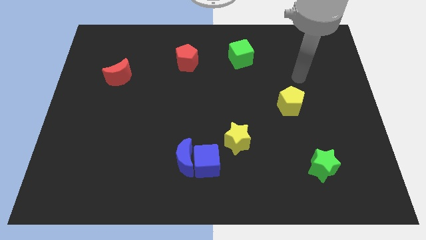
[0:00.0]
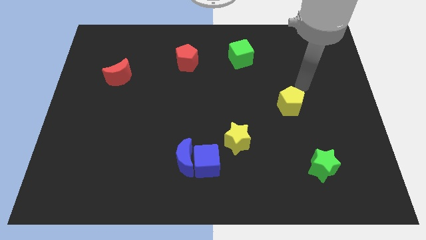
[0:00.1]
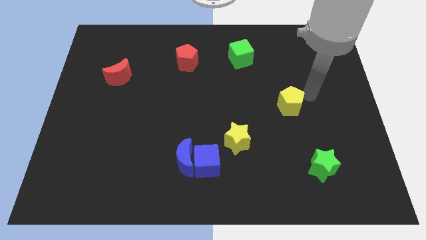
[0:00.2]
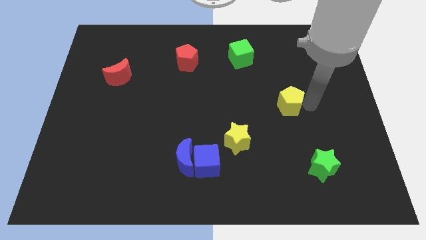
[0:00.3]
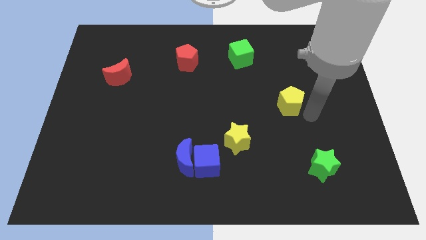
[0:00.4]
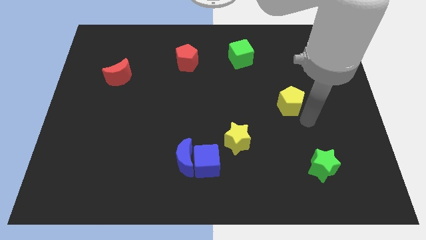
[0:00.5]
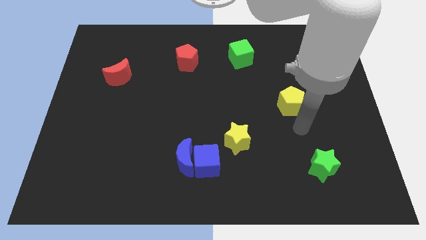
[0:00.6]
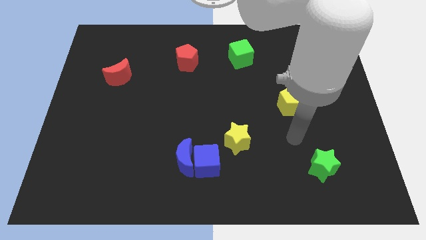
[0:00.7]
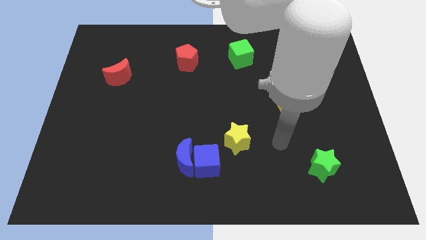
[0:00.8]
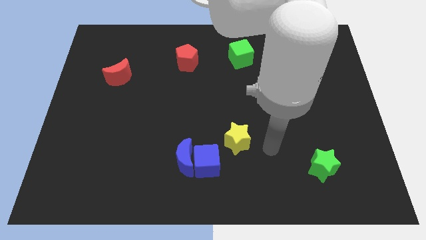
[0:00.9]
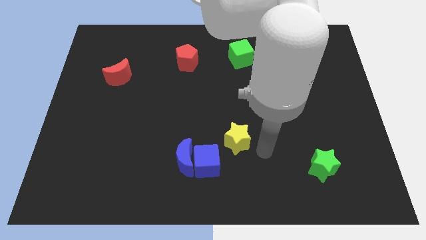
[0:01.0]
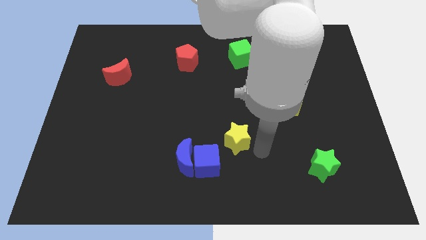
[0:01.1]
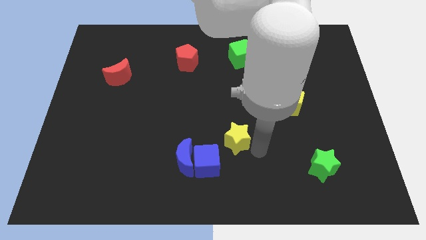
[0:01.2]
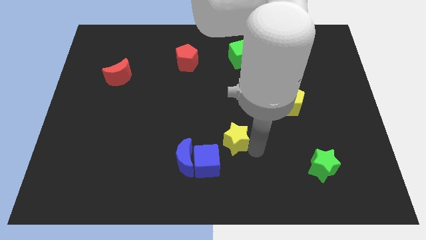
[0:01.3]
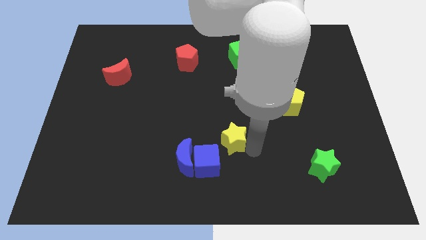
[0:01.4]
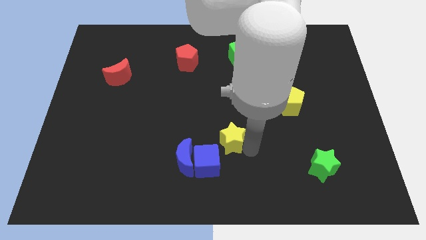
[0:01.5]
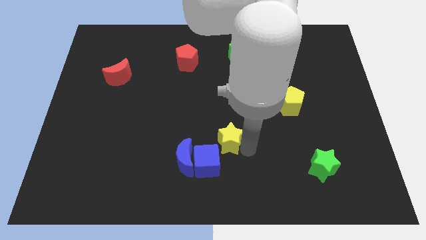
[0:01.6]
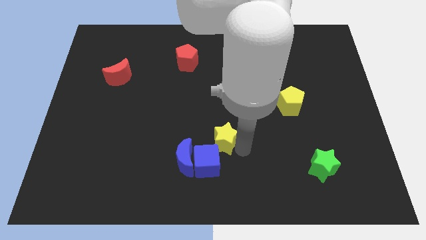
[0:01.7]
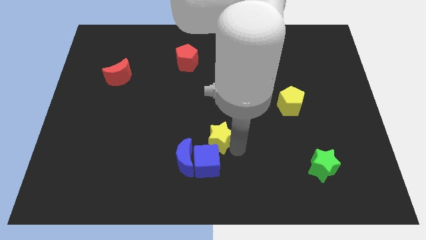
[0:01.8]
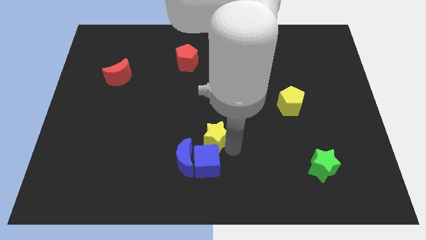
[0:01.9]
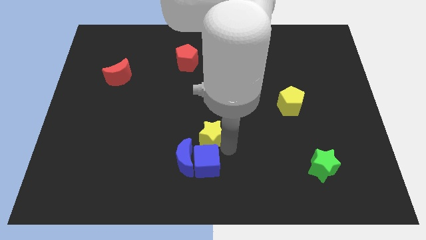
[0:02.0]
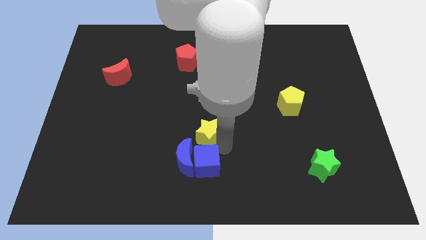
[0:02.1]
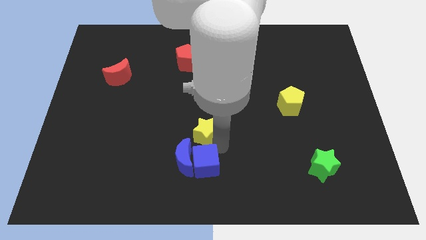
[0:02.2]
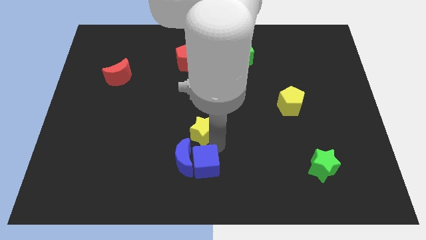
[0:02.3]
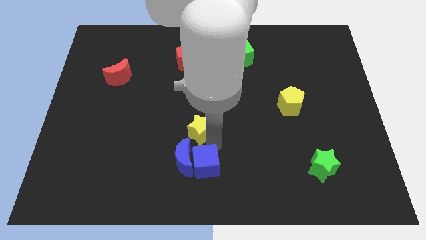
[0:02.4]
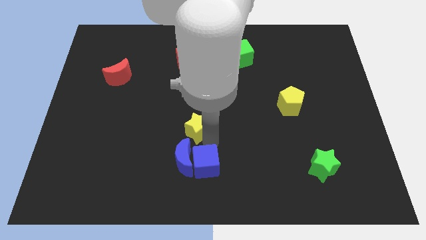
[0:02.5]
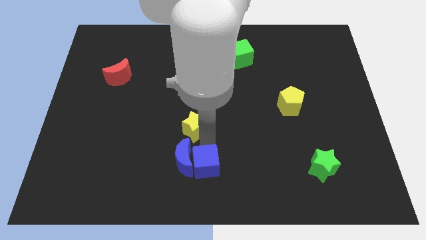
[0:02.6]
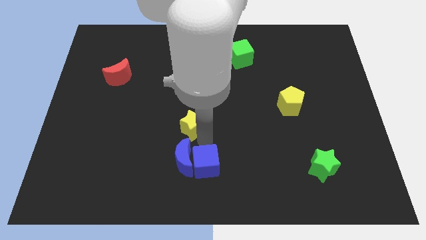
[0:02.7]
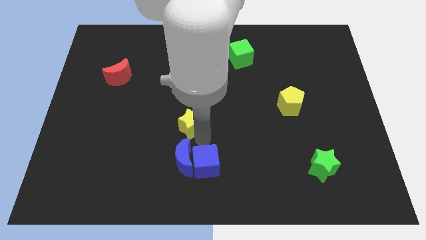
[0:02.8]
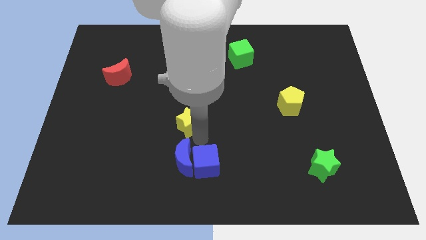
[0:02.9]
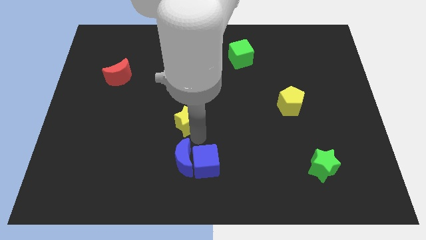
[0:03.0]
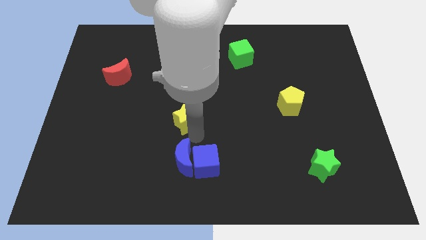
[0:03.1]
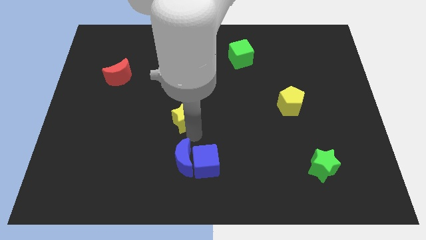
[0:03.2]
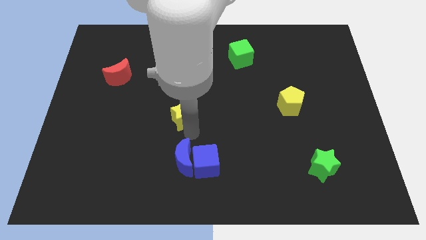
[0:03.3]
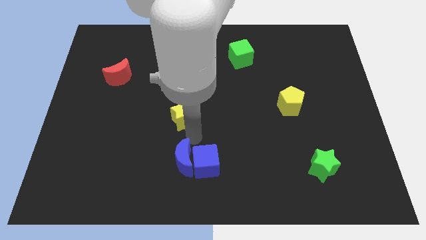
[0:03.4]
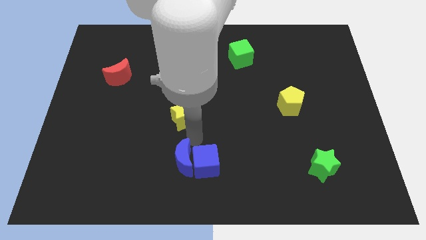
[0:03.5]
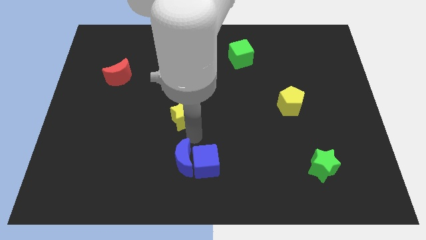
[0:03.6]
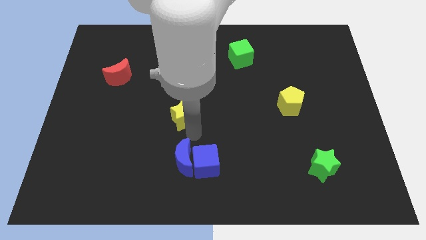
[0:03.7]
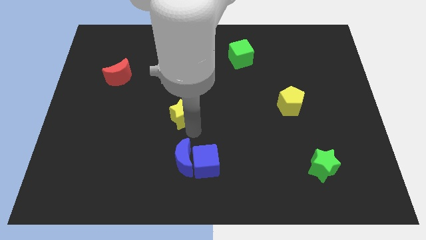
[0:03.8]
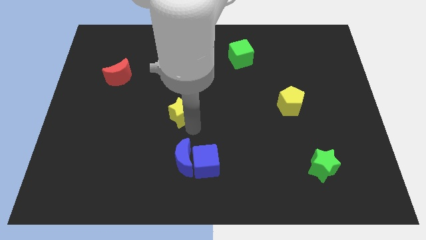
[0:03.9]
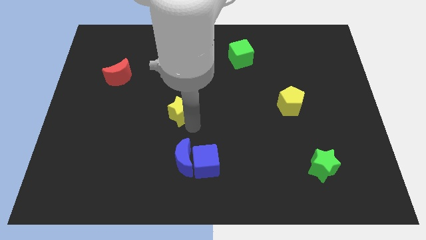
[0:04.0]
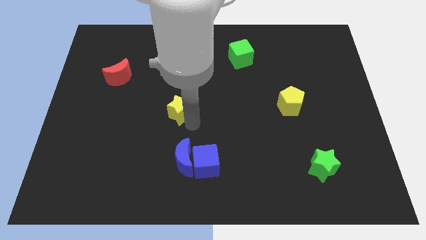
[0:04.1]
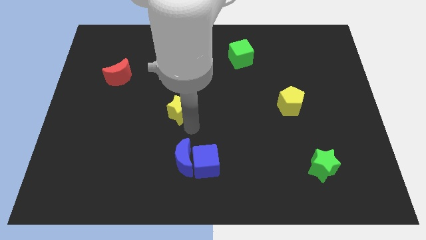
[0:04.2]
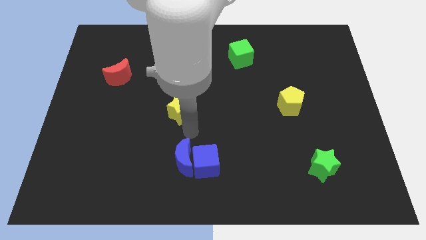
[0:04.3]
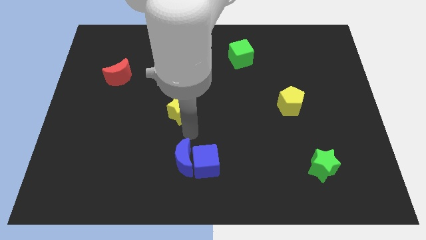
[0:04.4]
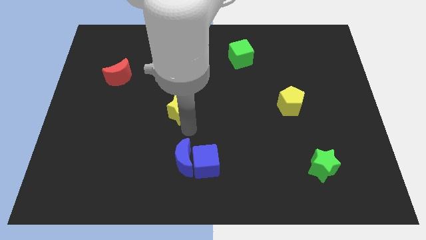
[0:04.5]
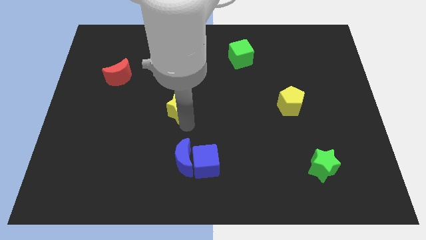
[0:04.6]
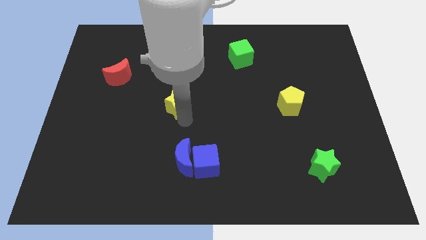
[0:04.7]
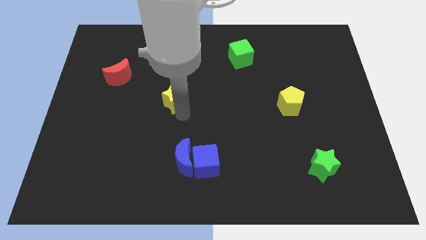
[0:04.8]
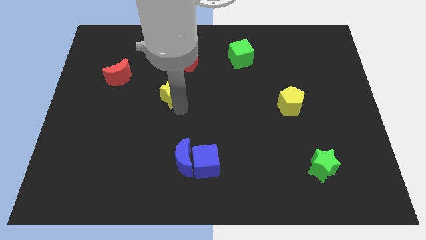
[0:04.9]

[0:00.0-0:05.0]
move the yellow star up and left

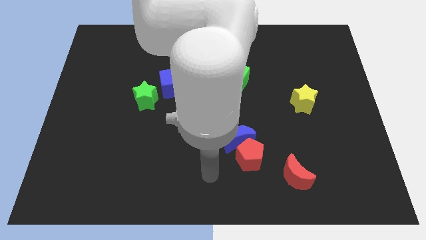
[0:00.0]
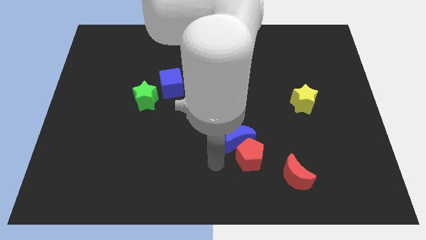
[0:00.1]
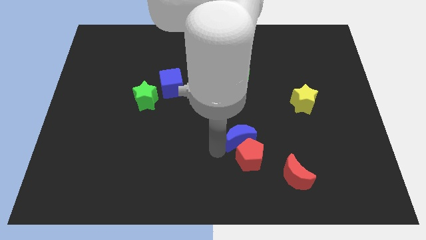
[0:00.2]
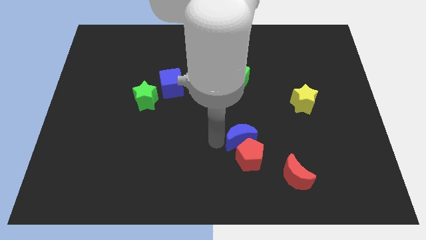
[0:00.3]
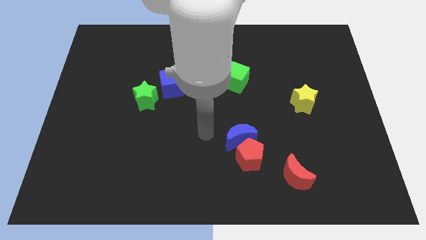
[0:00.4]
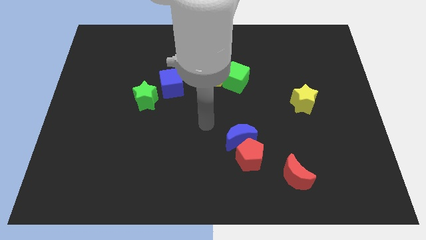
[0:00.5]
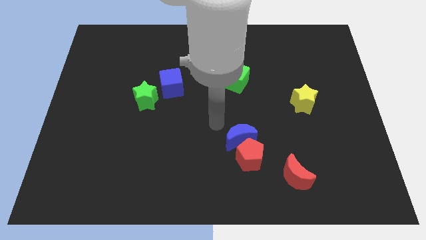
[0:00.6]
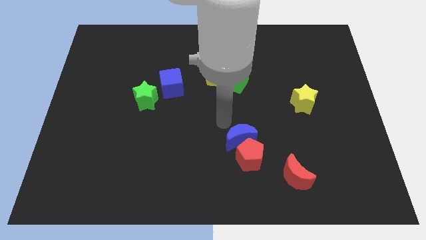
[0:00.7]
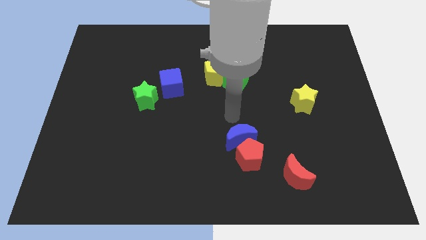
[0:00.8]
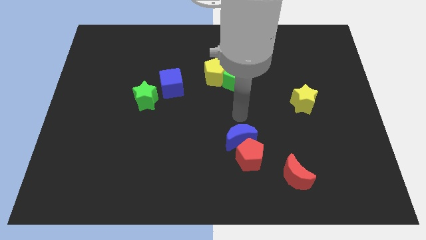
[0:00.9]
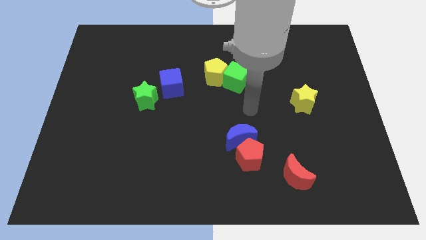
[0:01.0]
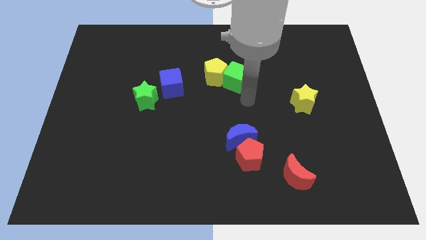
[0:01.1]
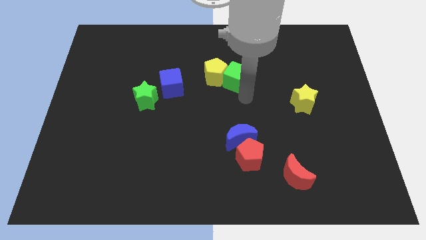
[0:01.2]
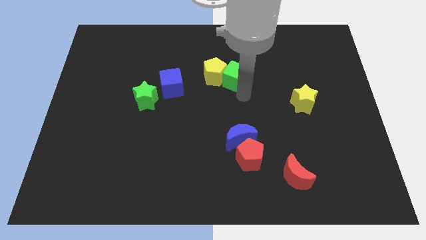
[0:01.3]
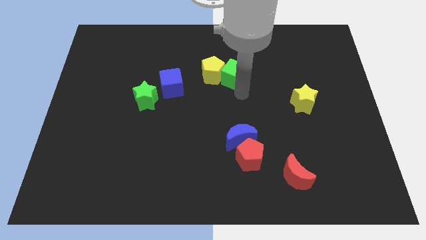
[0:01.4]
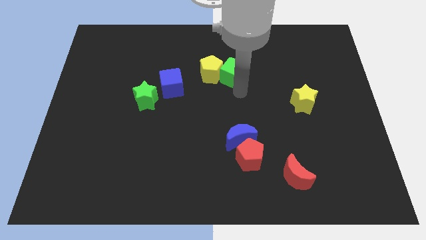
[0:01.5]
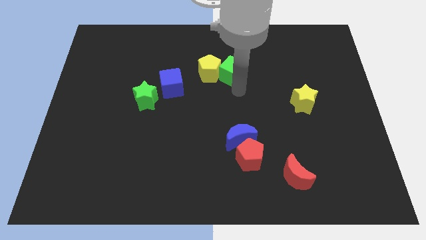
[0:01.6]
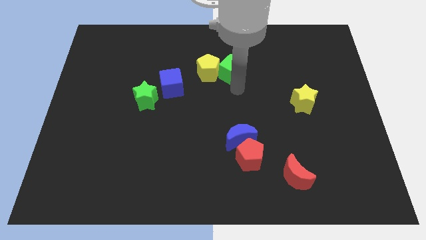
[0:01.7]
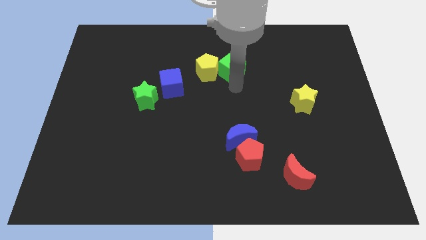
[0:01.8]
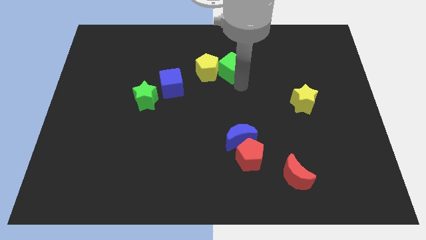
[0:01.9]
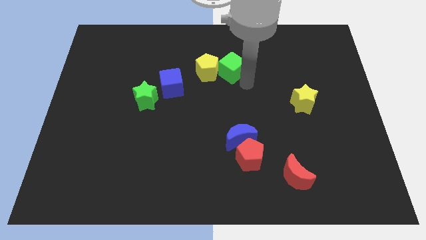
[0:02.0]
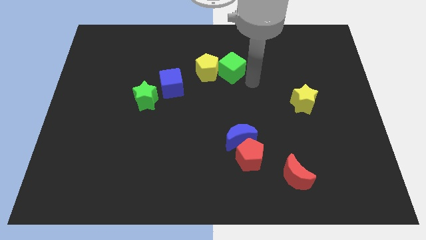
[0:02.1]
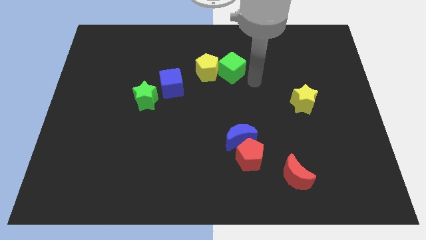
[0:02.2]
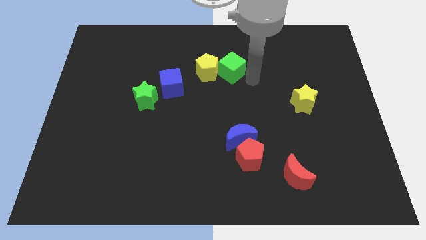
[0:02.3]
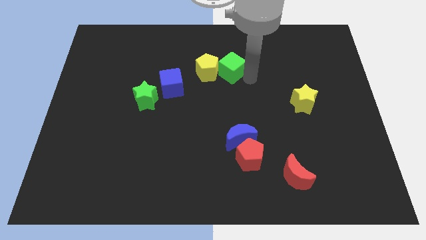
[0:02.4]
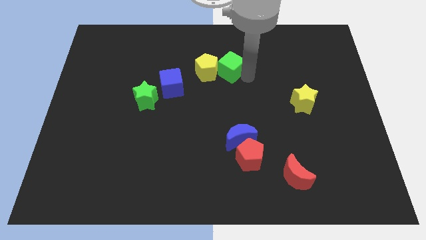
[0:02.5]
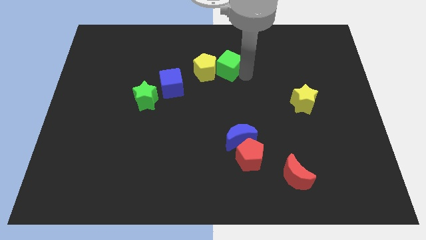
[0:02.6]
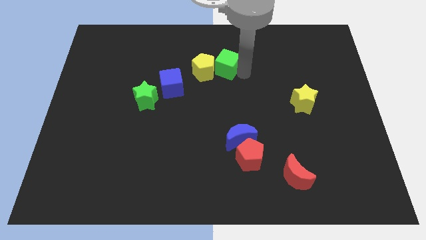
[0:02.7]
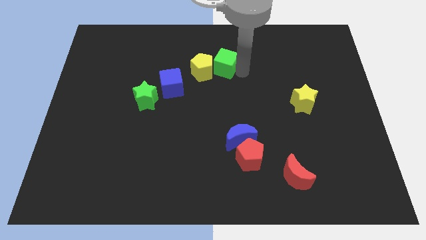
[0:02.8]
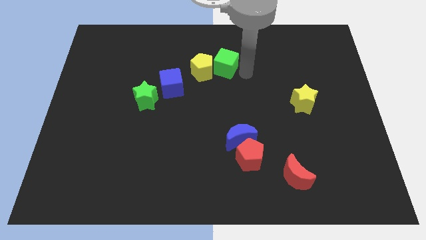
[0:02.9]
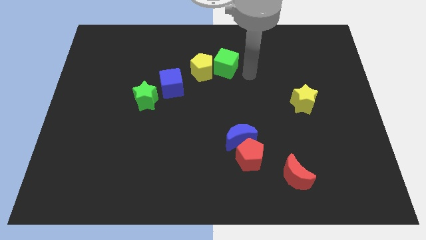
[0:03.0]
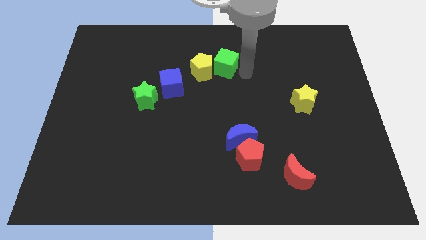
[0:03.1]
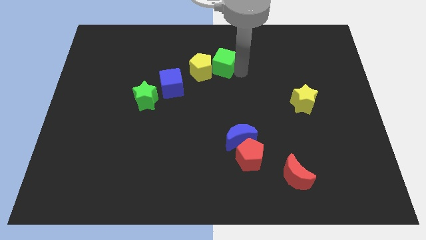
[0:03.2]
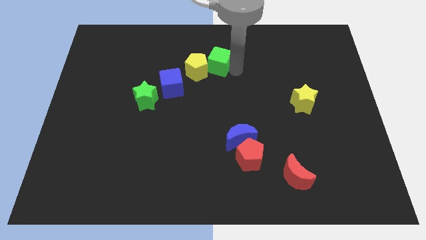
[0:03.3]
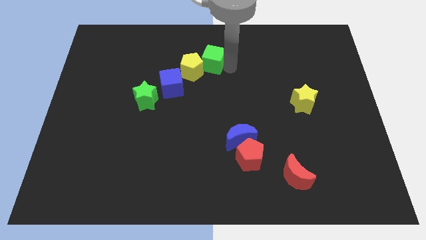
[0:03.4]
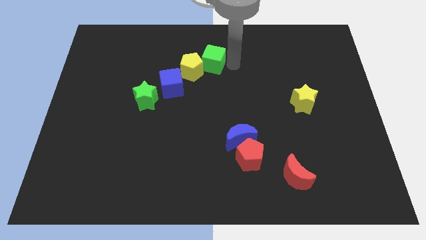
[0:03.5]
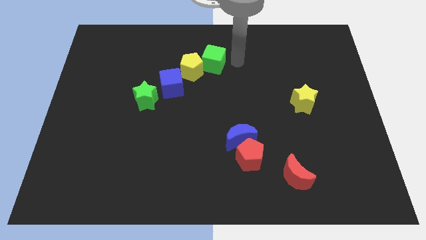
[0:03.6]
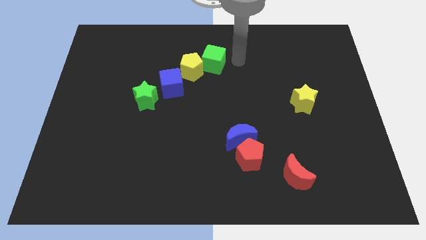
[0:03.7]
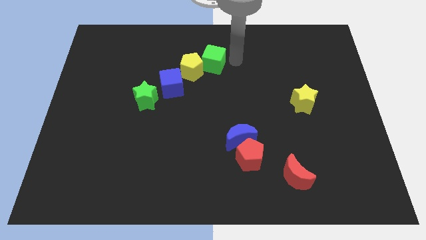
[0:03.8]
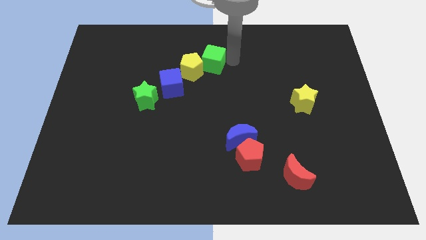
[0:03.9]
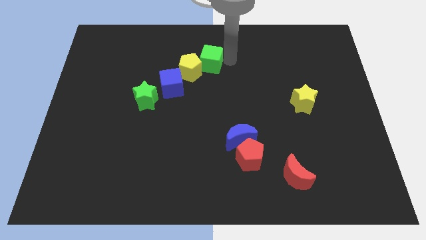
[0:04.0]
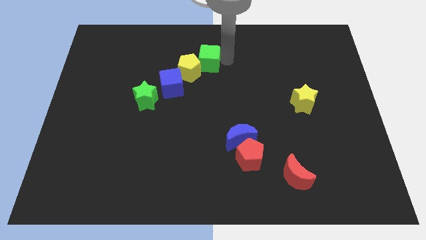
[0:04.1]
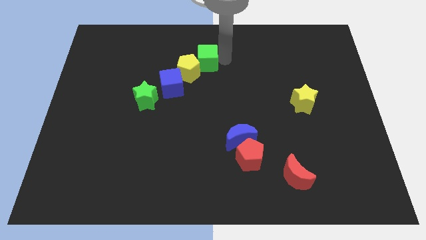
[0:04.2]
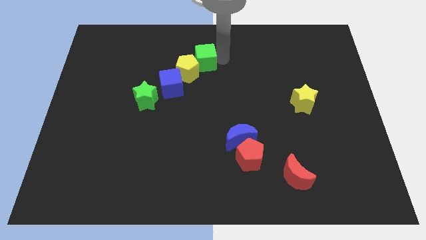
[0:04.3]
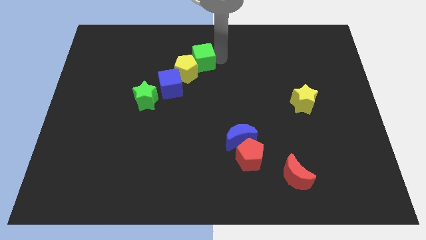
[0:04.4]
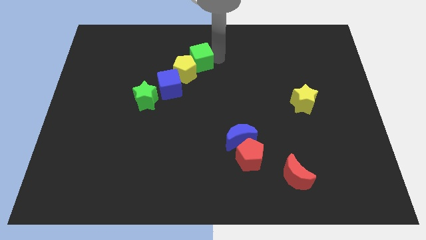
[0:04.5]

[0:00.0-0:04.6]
slide the green cube somewhat left
